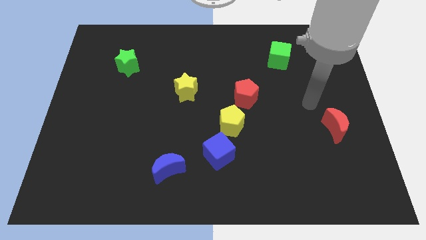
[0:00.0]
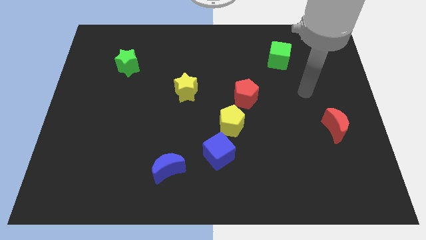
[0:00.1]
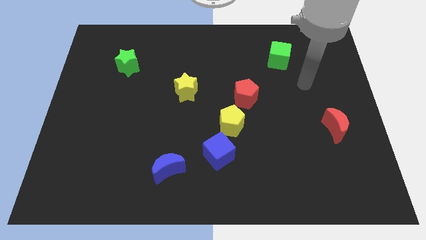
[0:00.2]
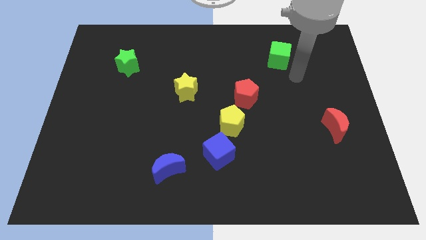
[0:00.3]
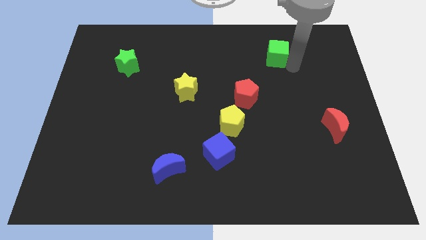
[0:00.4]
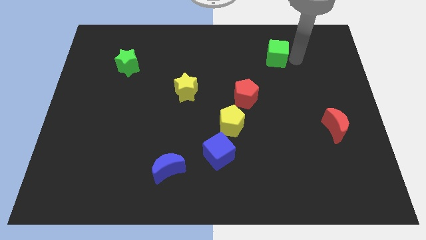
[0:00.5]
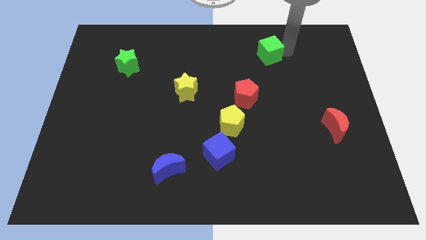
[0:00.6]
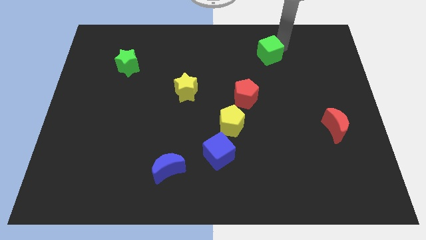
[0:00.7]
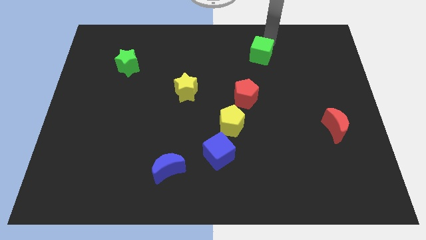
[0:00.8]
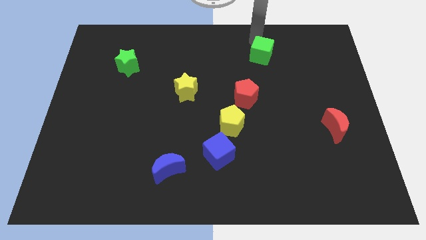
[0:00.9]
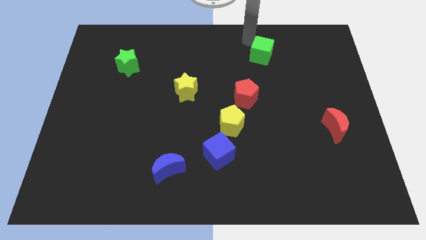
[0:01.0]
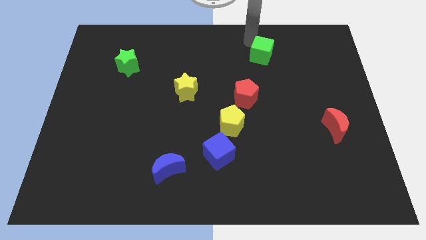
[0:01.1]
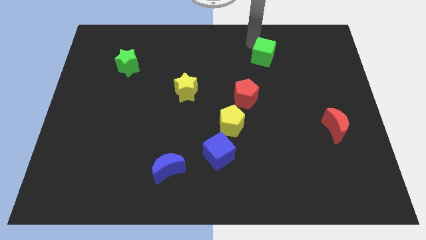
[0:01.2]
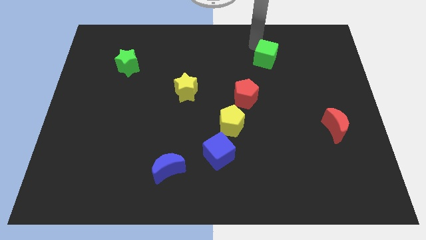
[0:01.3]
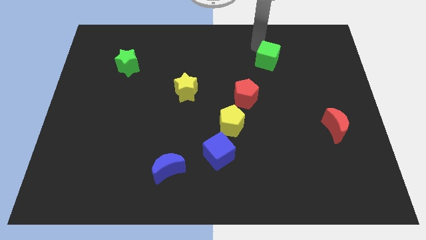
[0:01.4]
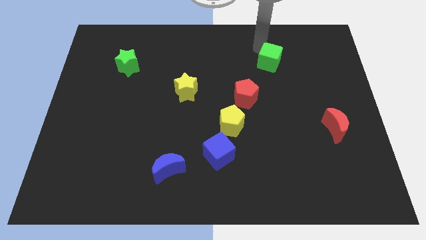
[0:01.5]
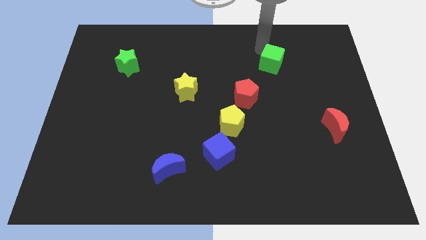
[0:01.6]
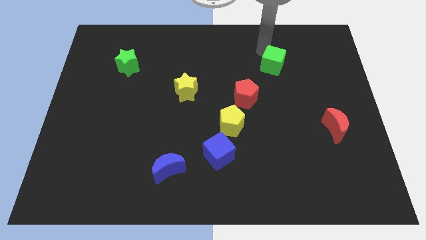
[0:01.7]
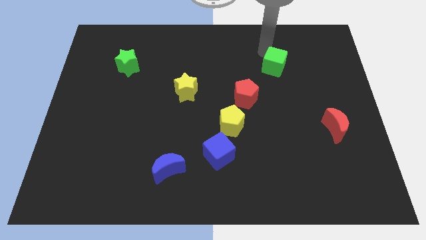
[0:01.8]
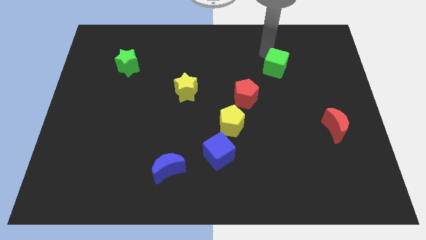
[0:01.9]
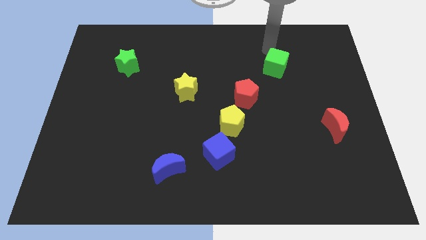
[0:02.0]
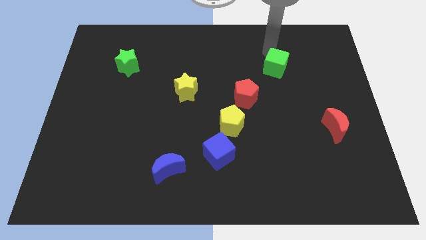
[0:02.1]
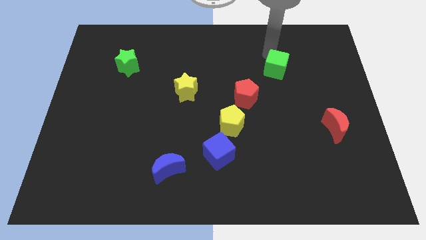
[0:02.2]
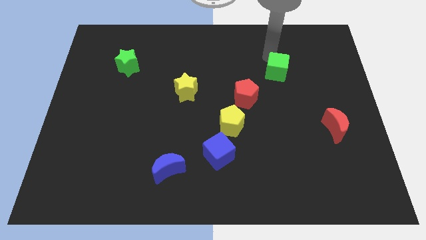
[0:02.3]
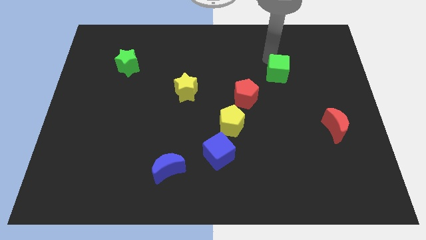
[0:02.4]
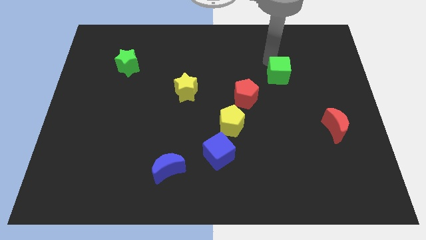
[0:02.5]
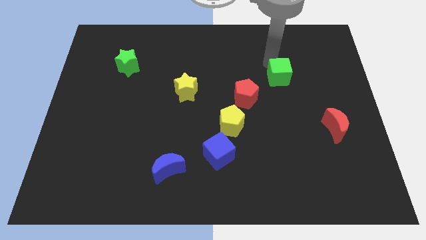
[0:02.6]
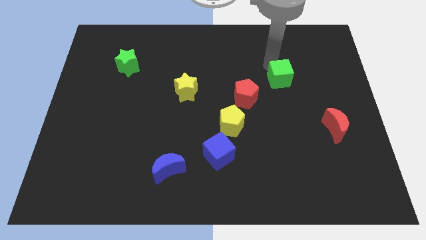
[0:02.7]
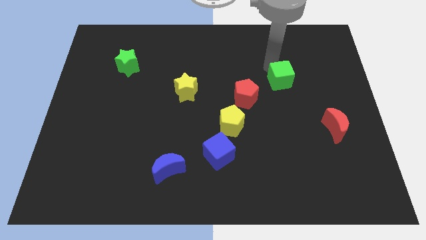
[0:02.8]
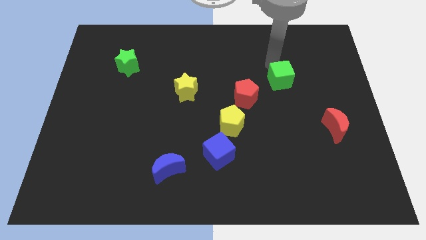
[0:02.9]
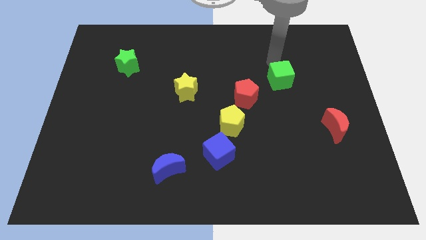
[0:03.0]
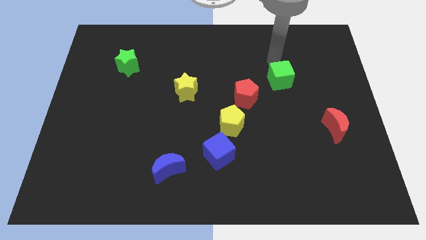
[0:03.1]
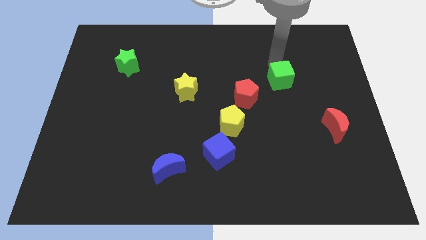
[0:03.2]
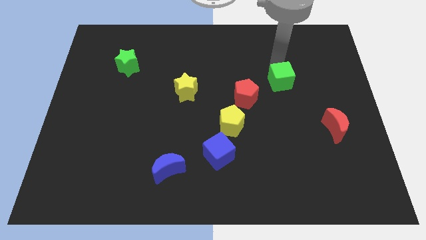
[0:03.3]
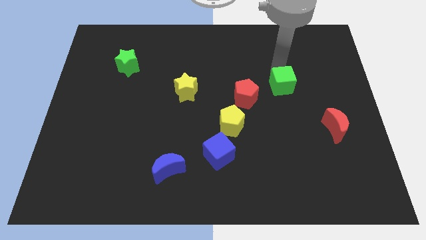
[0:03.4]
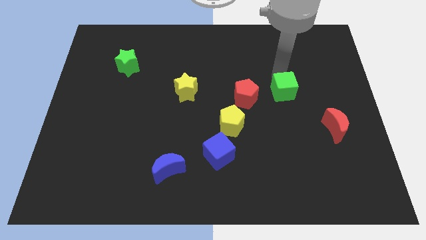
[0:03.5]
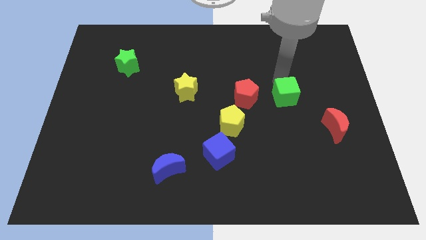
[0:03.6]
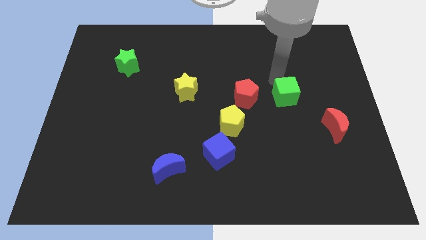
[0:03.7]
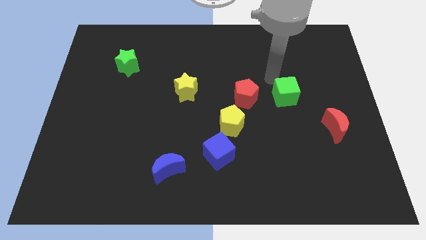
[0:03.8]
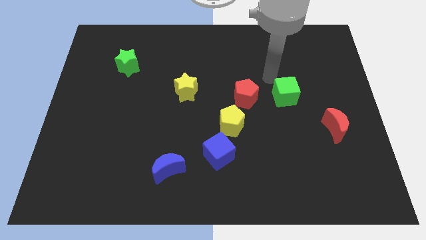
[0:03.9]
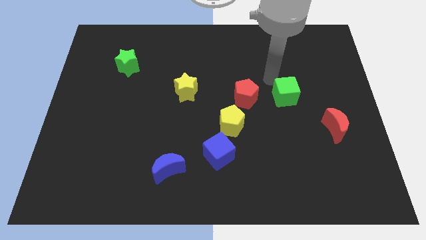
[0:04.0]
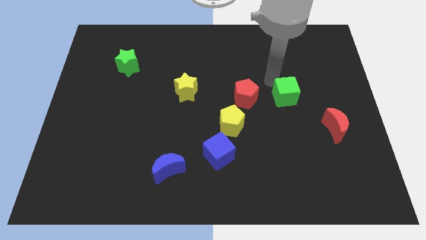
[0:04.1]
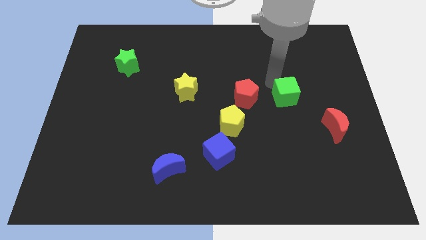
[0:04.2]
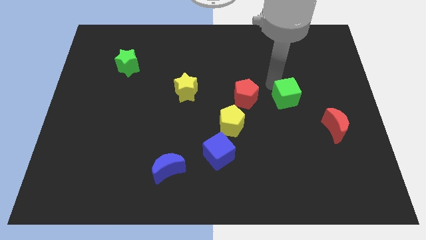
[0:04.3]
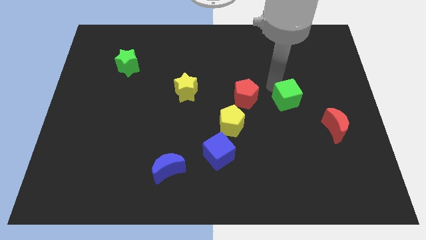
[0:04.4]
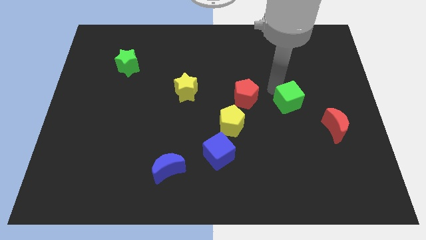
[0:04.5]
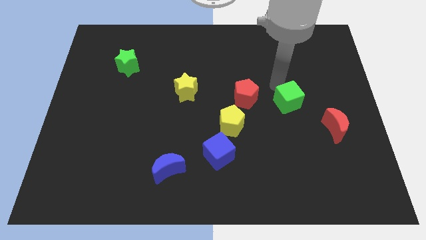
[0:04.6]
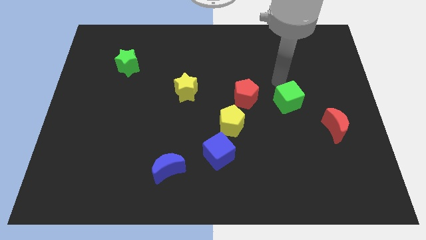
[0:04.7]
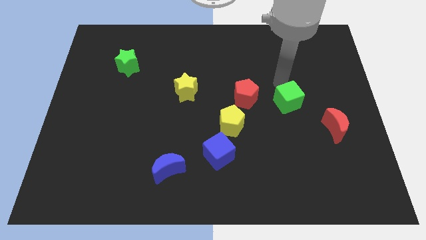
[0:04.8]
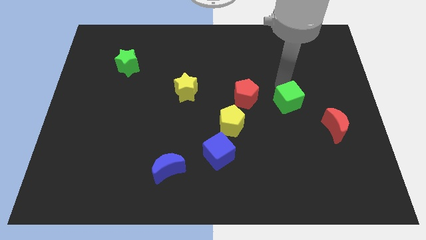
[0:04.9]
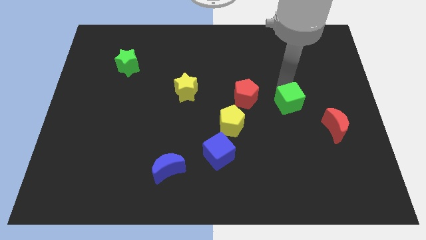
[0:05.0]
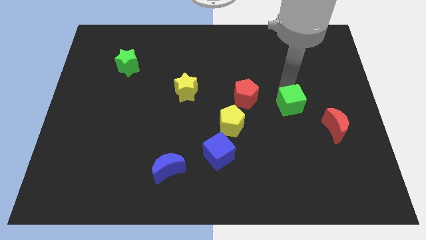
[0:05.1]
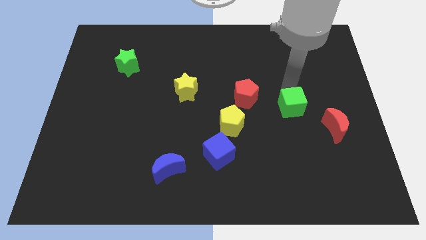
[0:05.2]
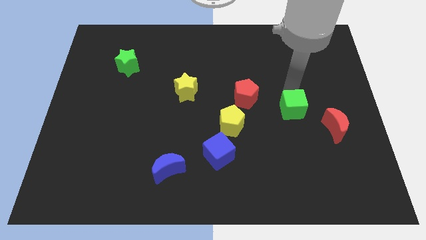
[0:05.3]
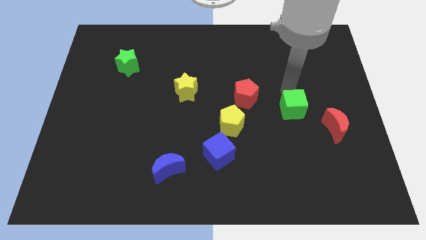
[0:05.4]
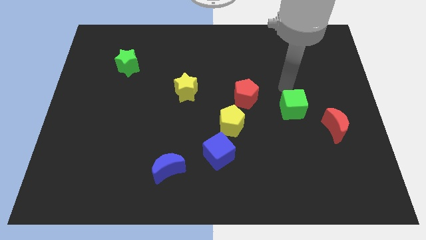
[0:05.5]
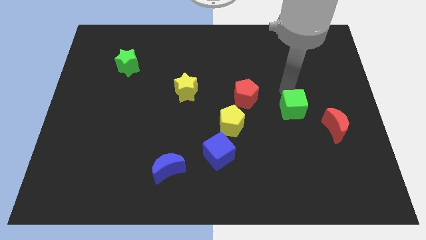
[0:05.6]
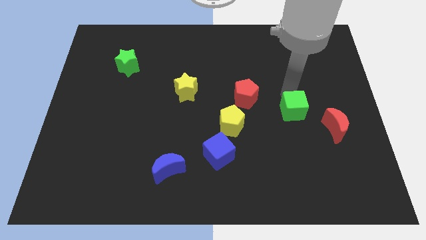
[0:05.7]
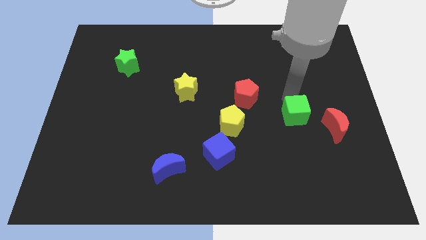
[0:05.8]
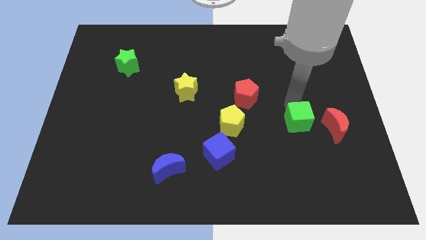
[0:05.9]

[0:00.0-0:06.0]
push the green cube downwards

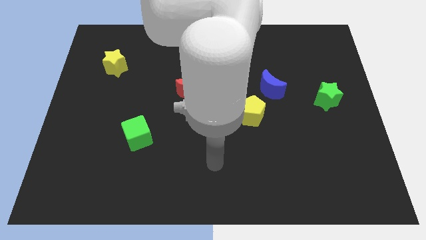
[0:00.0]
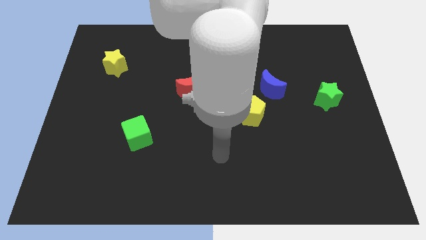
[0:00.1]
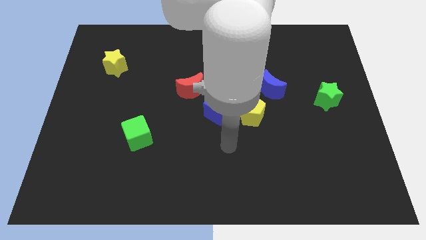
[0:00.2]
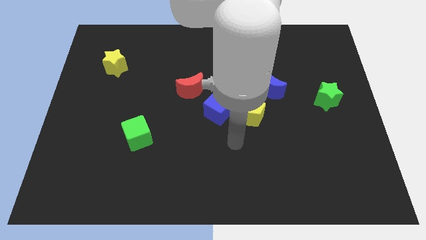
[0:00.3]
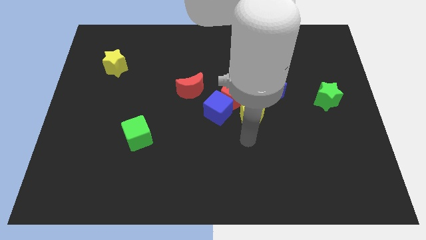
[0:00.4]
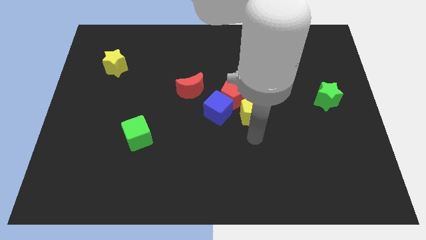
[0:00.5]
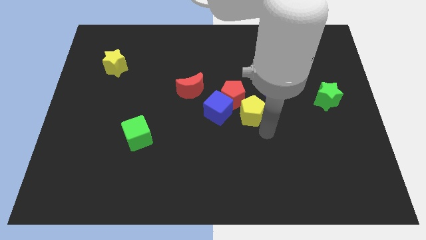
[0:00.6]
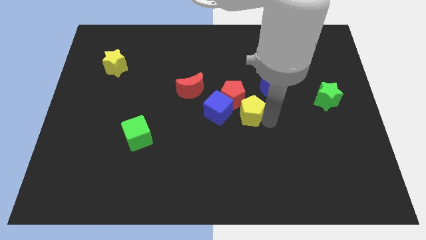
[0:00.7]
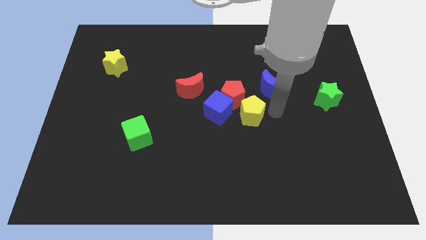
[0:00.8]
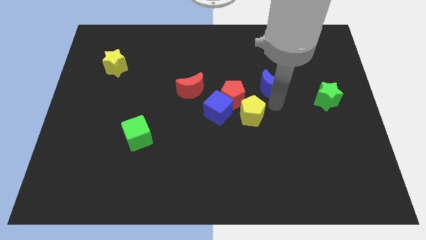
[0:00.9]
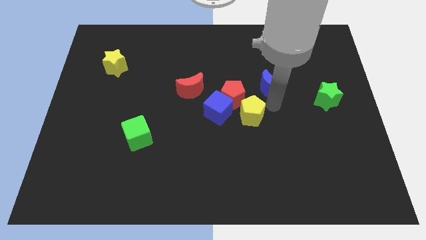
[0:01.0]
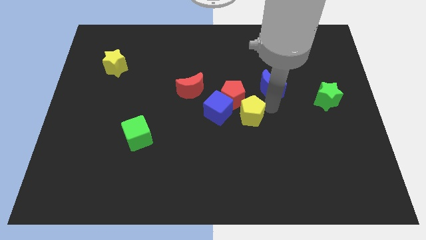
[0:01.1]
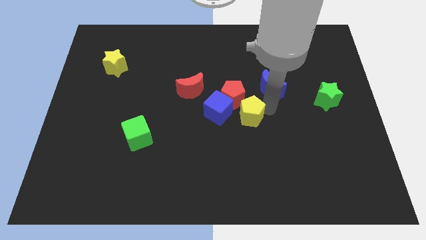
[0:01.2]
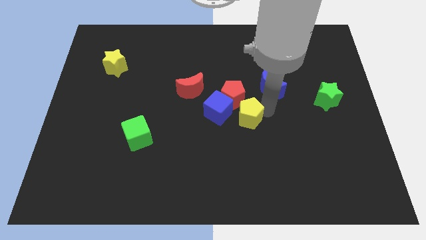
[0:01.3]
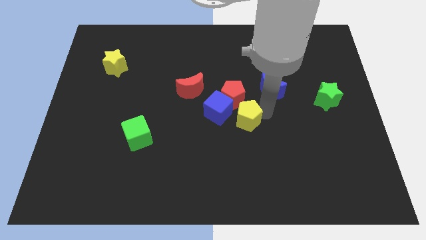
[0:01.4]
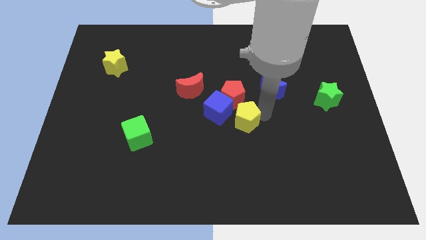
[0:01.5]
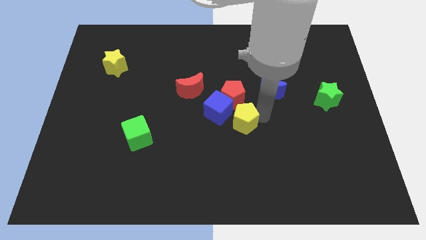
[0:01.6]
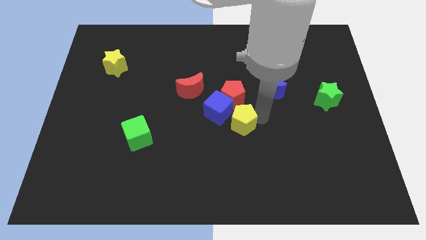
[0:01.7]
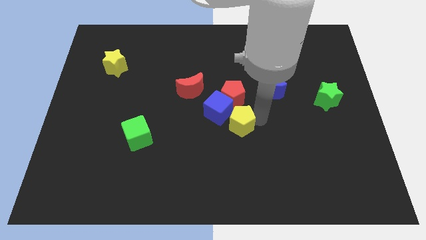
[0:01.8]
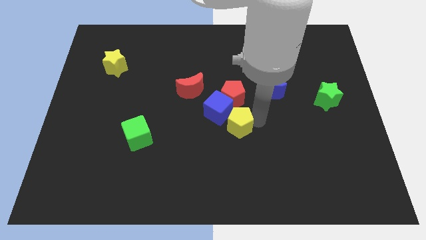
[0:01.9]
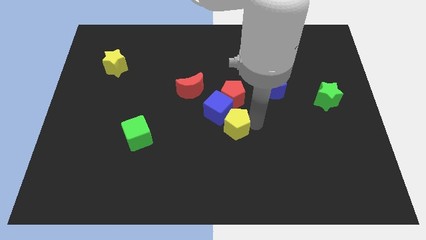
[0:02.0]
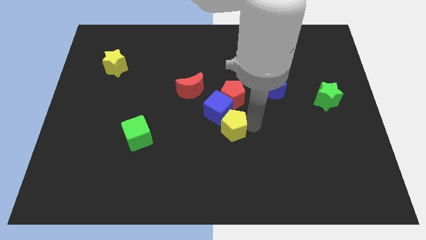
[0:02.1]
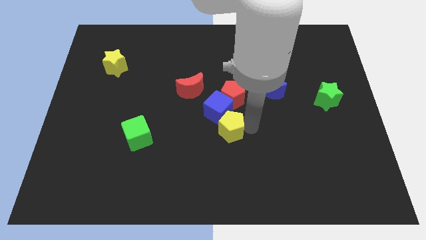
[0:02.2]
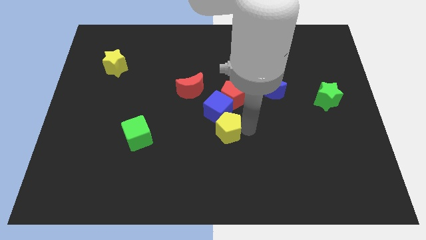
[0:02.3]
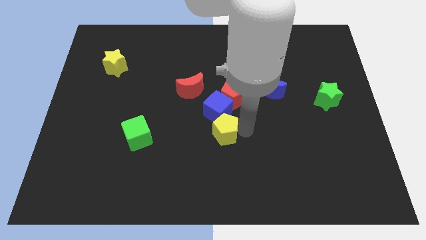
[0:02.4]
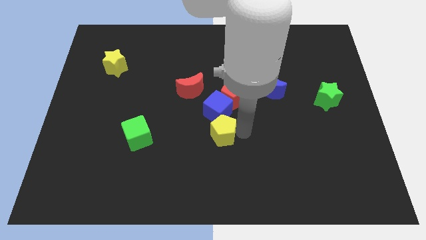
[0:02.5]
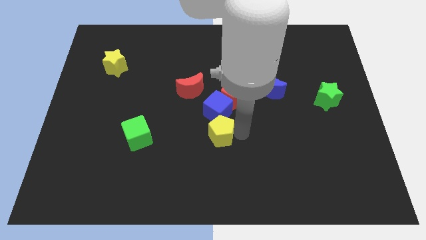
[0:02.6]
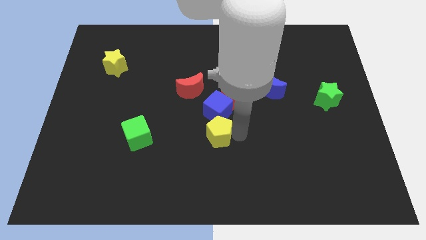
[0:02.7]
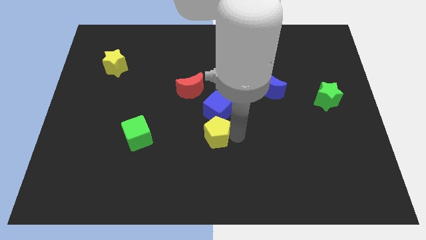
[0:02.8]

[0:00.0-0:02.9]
push the yellow pentagon to the left somewhat
